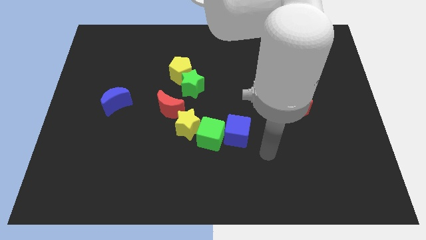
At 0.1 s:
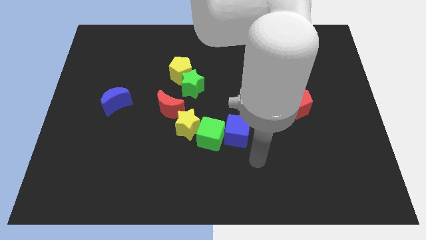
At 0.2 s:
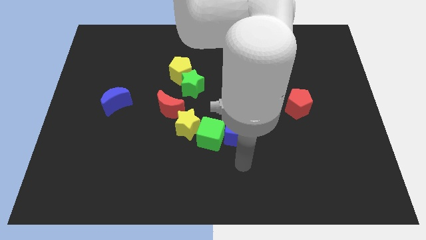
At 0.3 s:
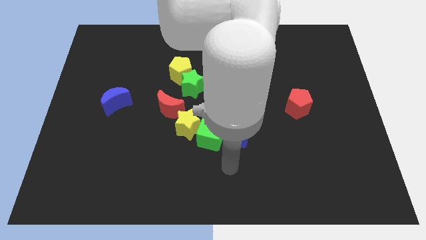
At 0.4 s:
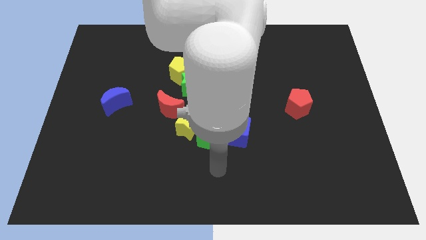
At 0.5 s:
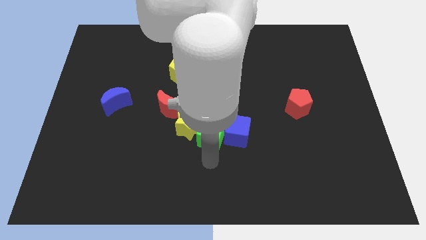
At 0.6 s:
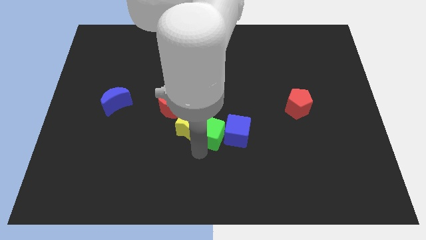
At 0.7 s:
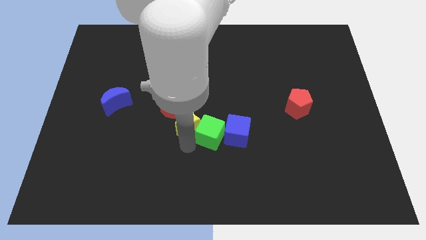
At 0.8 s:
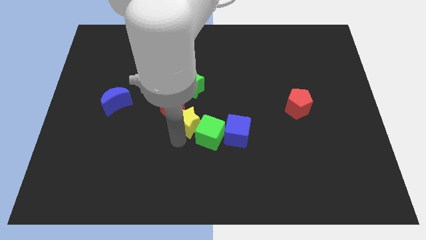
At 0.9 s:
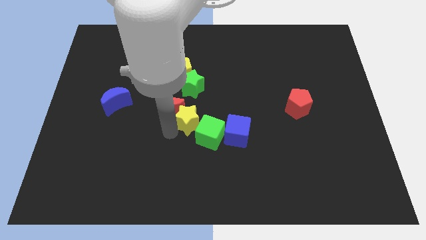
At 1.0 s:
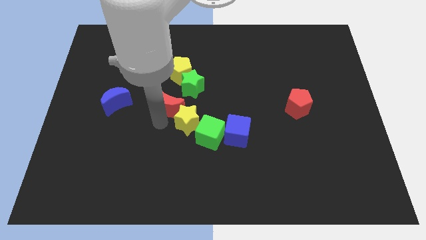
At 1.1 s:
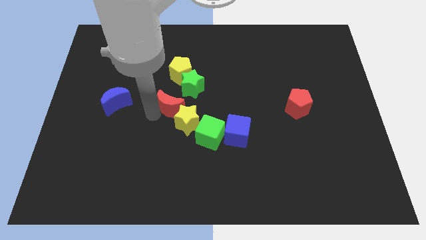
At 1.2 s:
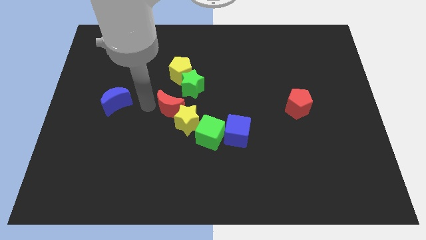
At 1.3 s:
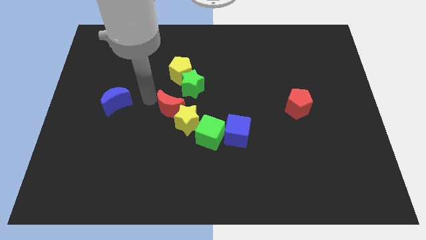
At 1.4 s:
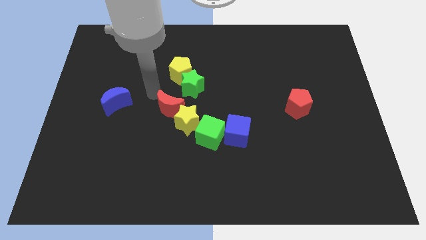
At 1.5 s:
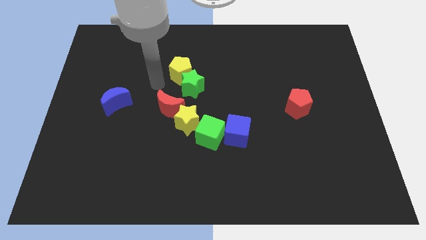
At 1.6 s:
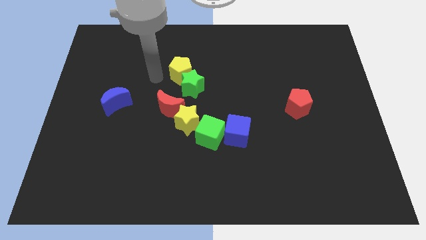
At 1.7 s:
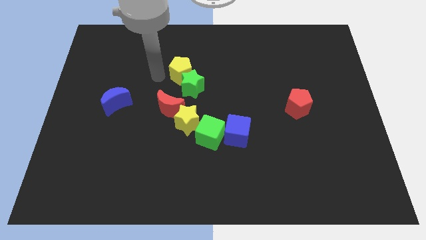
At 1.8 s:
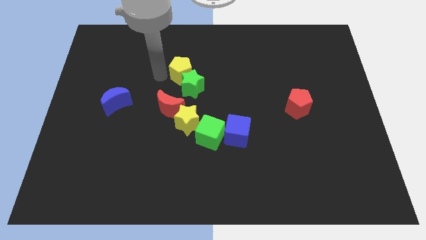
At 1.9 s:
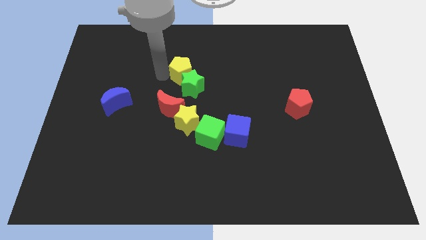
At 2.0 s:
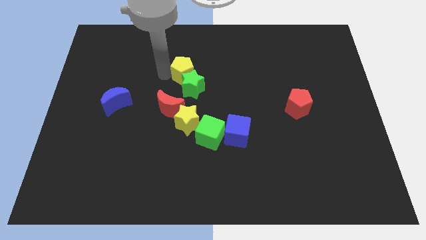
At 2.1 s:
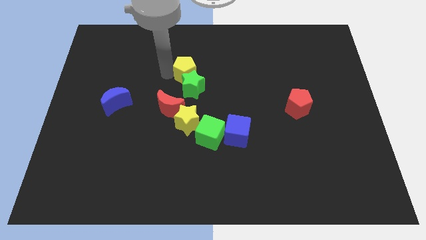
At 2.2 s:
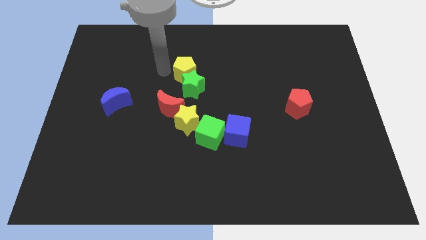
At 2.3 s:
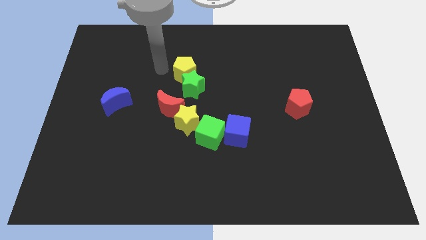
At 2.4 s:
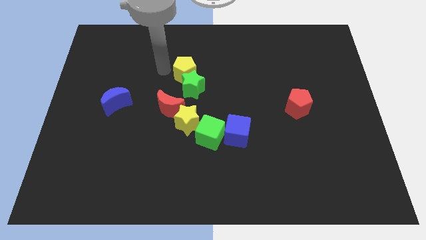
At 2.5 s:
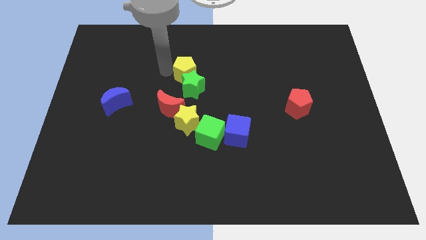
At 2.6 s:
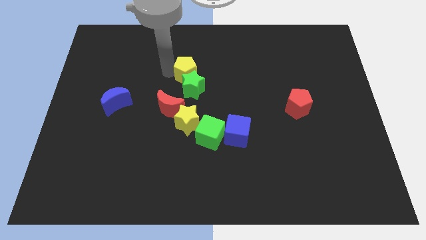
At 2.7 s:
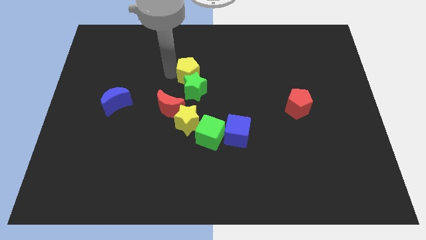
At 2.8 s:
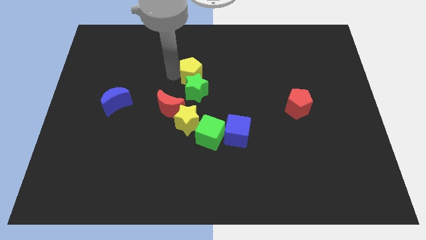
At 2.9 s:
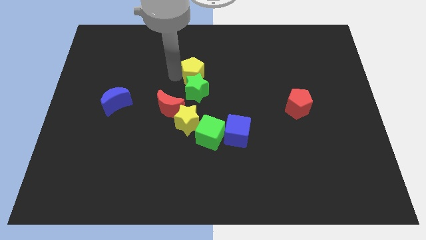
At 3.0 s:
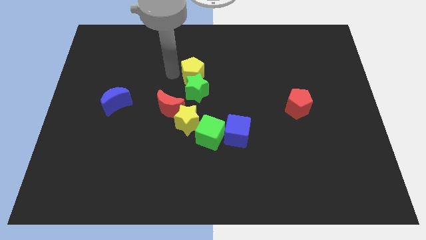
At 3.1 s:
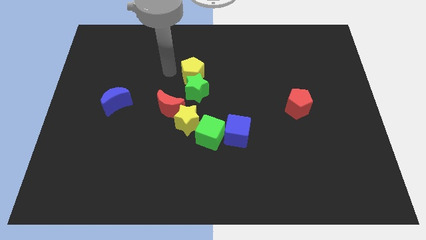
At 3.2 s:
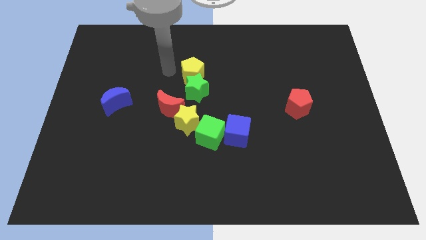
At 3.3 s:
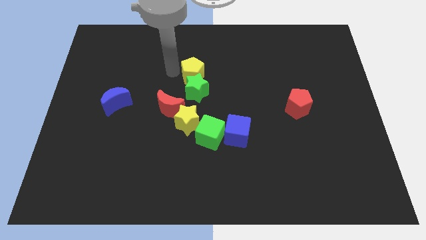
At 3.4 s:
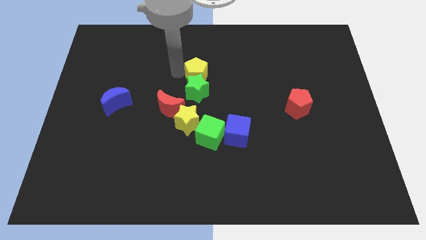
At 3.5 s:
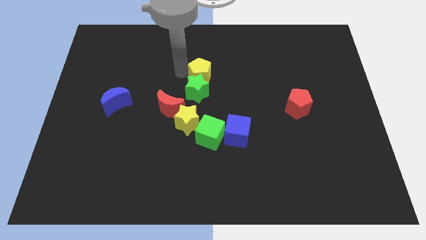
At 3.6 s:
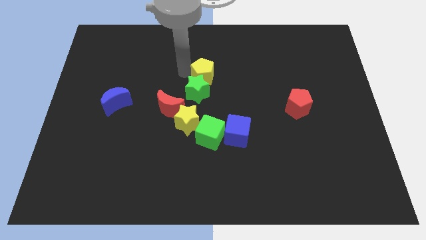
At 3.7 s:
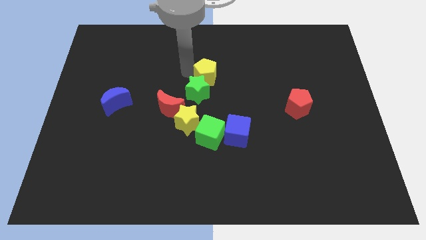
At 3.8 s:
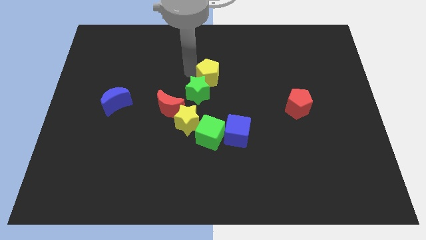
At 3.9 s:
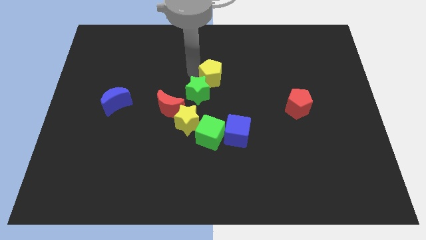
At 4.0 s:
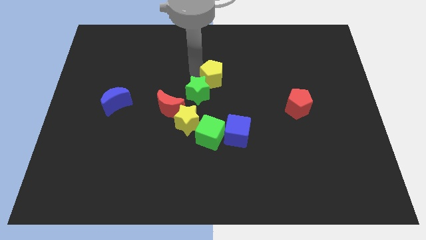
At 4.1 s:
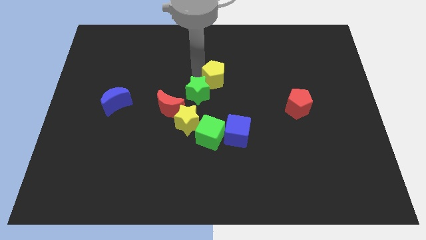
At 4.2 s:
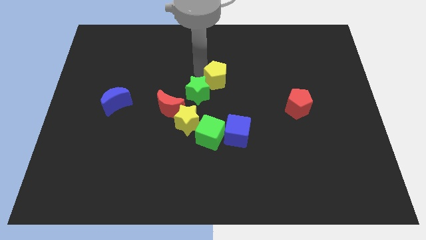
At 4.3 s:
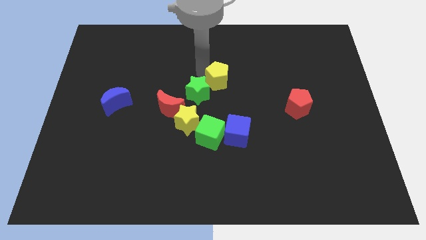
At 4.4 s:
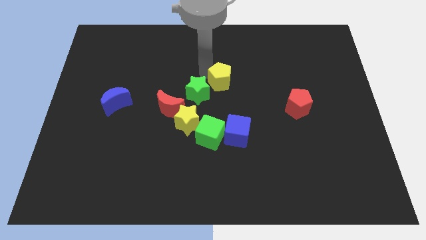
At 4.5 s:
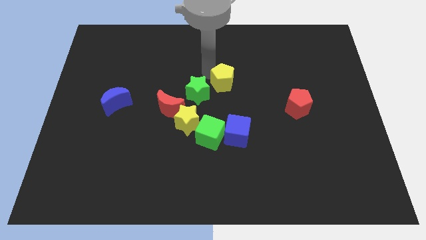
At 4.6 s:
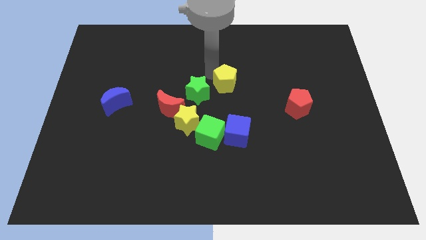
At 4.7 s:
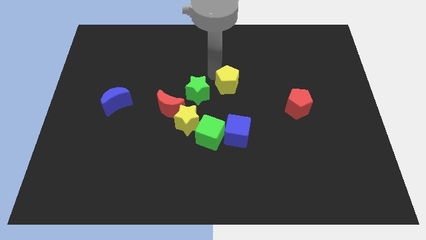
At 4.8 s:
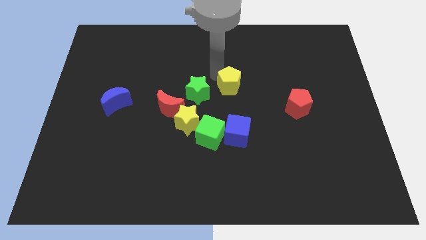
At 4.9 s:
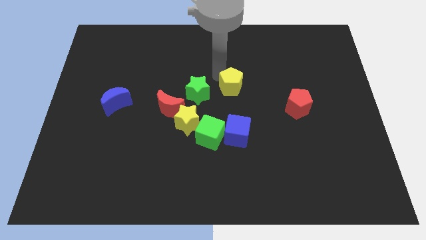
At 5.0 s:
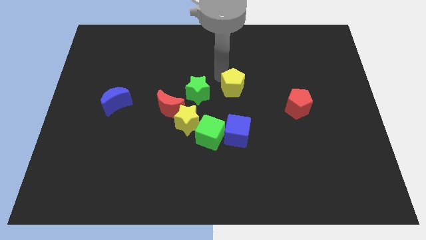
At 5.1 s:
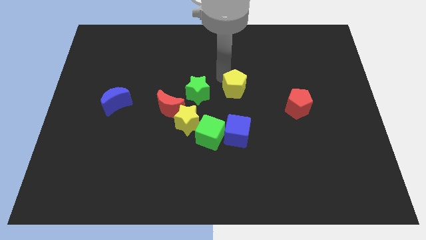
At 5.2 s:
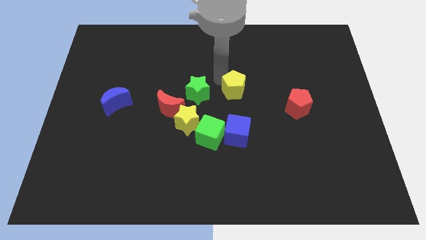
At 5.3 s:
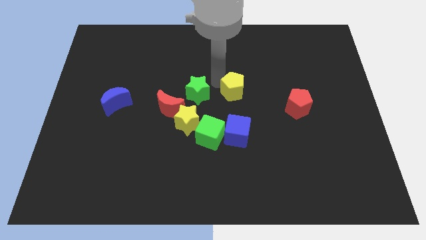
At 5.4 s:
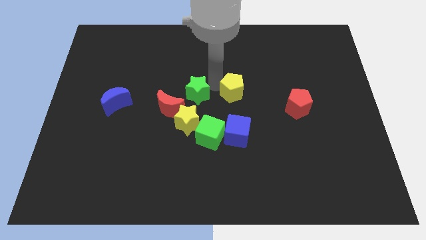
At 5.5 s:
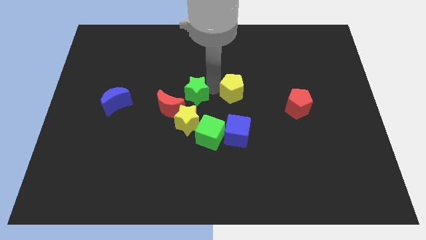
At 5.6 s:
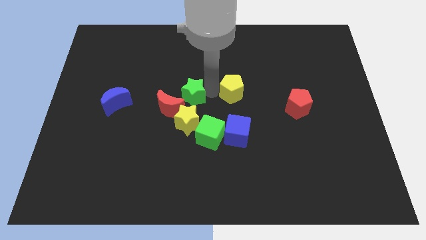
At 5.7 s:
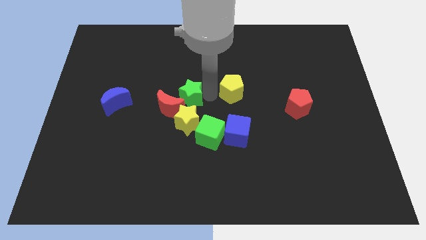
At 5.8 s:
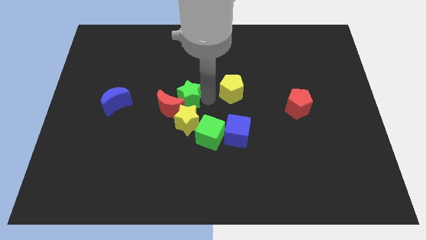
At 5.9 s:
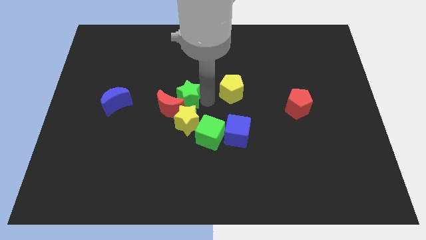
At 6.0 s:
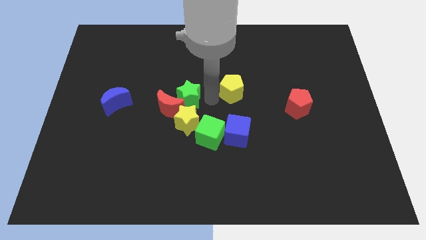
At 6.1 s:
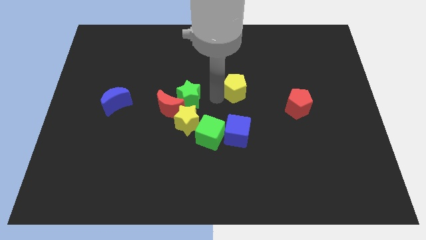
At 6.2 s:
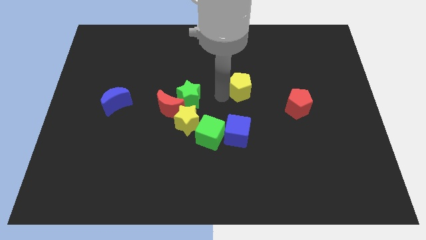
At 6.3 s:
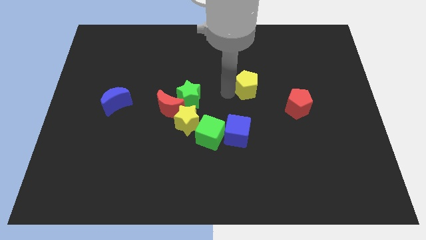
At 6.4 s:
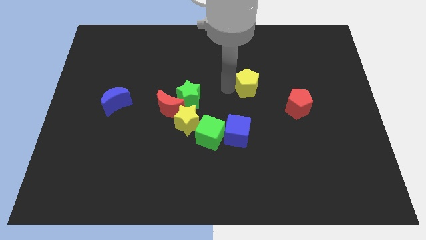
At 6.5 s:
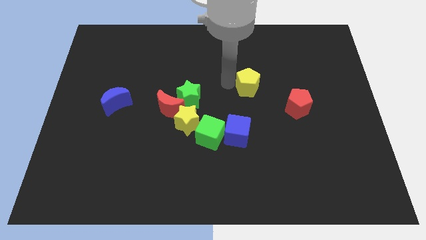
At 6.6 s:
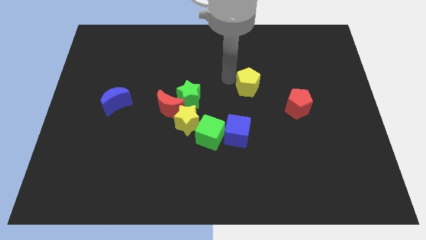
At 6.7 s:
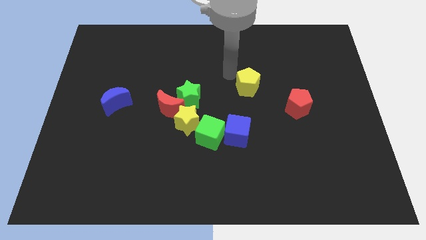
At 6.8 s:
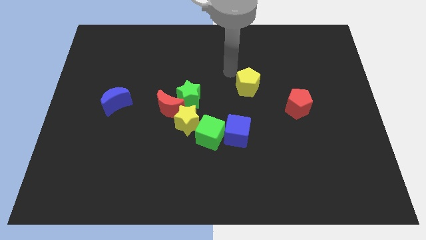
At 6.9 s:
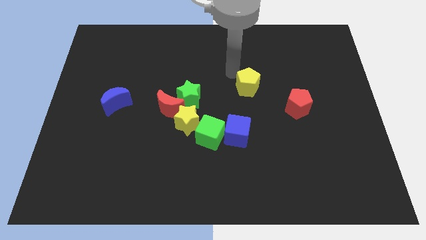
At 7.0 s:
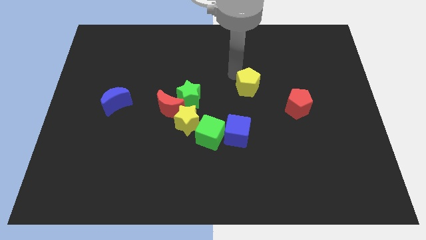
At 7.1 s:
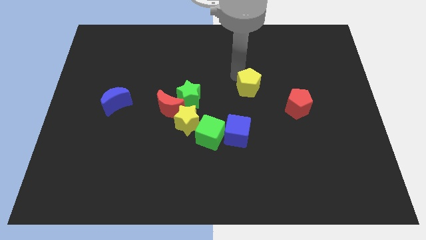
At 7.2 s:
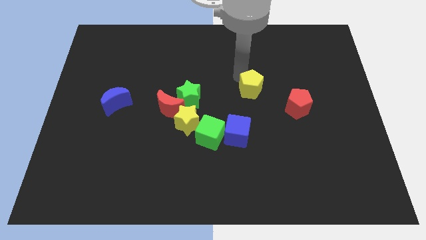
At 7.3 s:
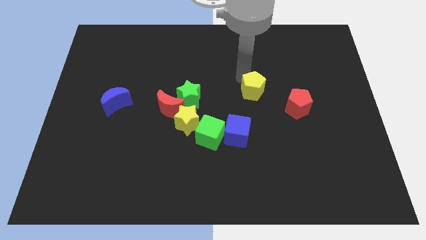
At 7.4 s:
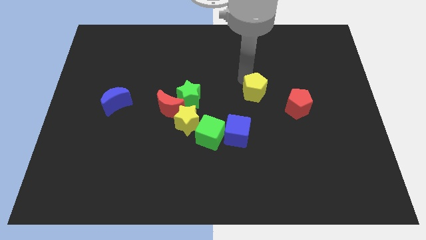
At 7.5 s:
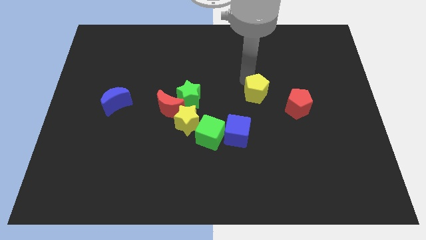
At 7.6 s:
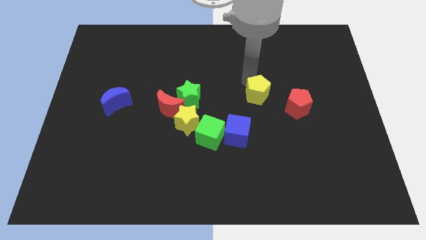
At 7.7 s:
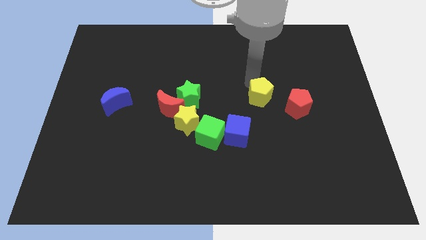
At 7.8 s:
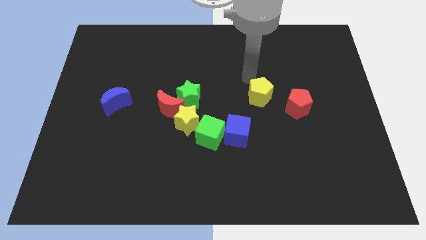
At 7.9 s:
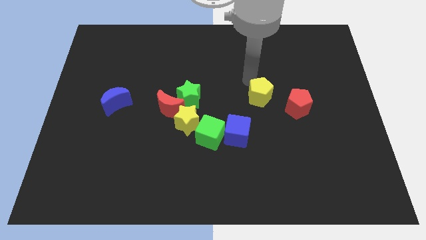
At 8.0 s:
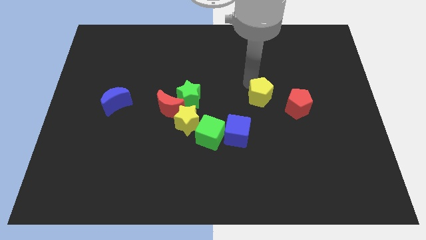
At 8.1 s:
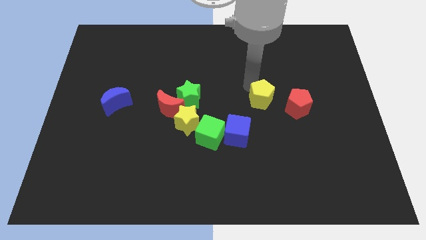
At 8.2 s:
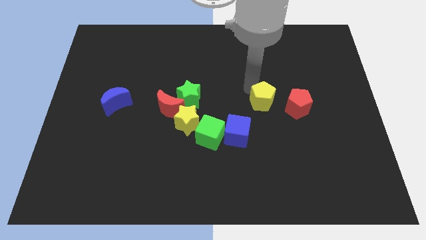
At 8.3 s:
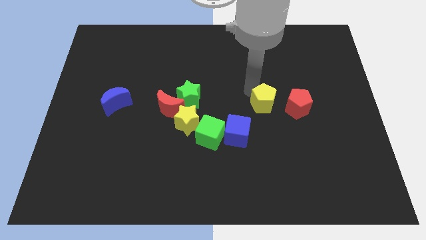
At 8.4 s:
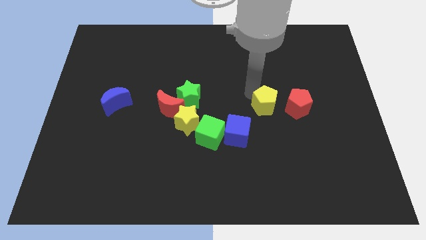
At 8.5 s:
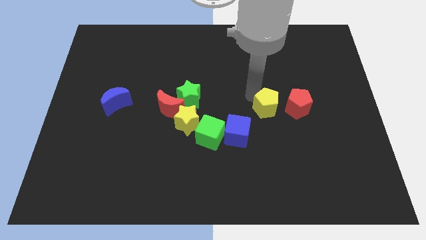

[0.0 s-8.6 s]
slide the yellow pentagon down and to the right
